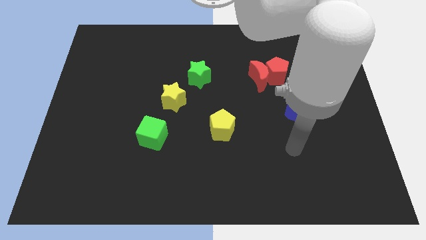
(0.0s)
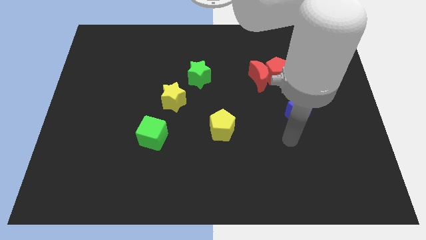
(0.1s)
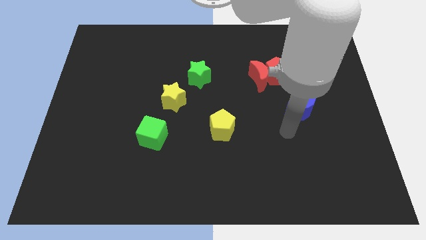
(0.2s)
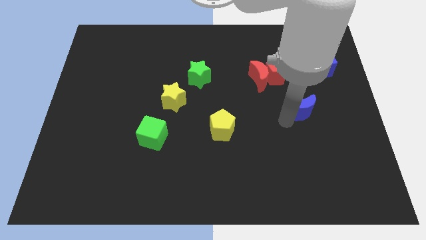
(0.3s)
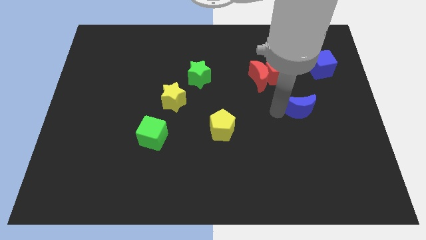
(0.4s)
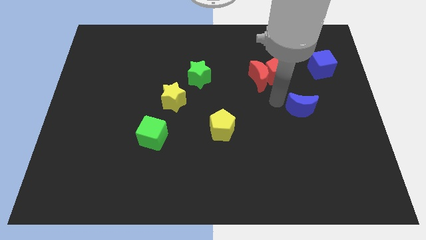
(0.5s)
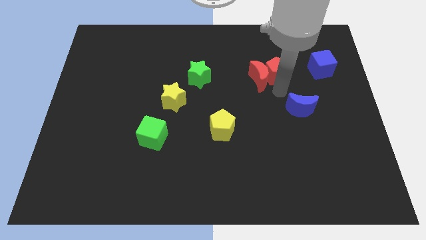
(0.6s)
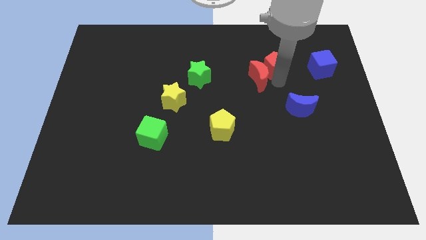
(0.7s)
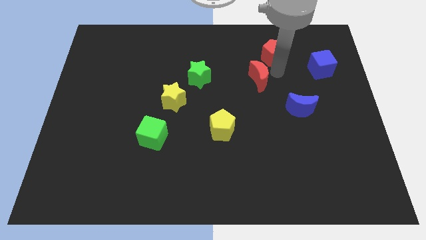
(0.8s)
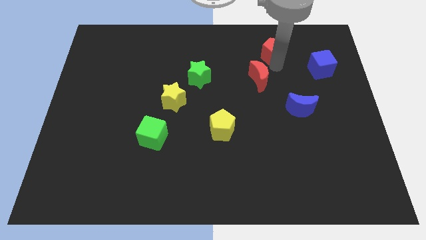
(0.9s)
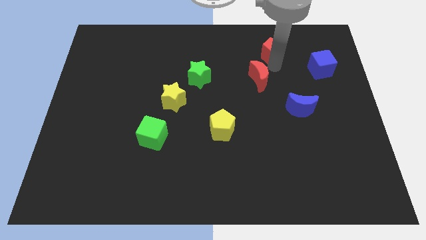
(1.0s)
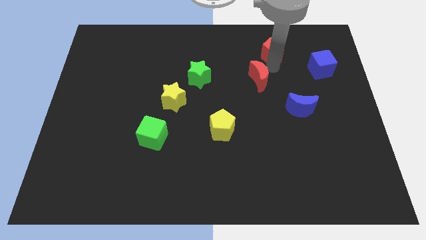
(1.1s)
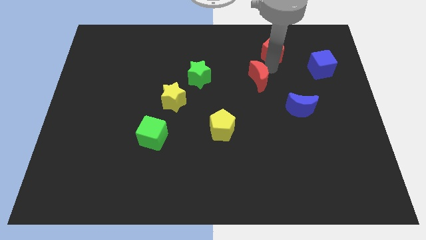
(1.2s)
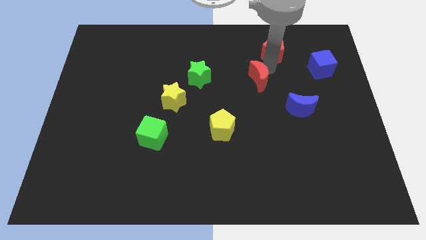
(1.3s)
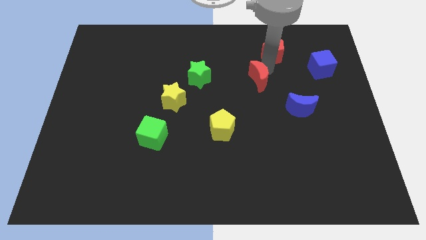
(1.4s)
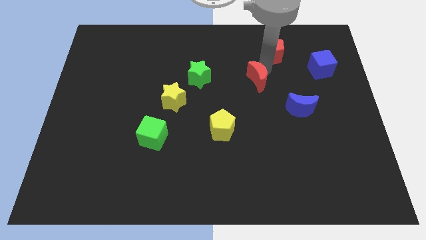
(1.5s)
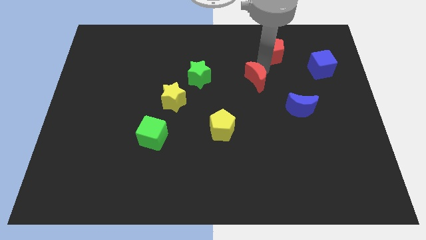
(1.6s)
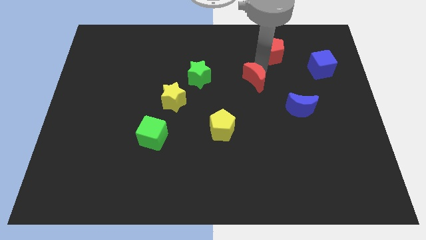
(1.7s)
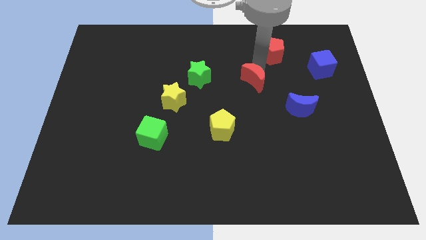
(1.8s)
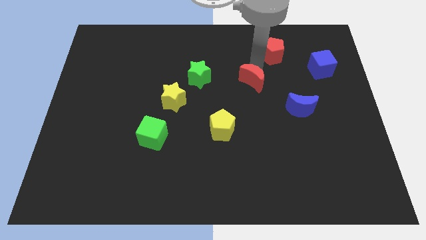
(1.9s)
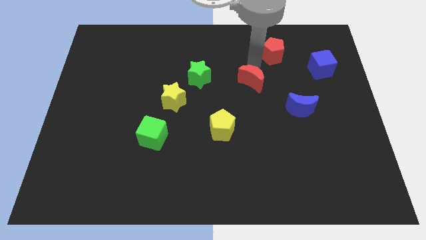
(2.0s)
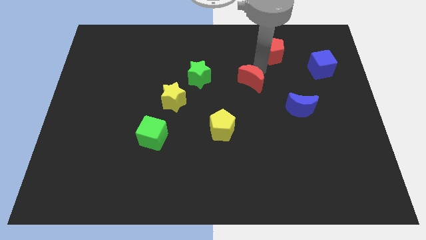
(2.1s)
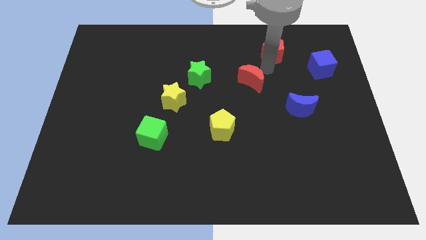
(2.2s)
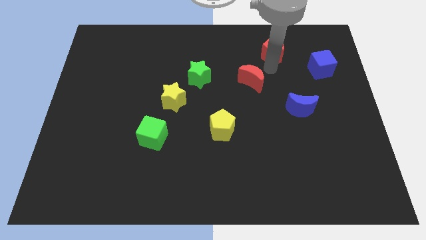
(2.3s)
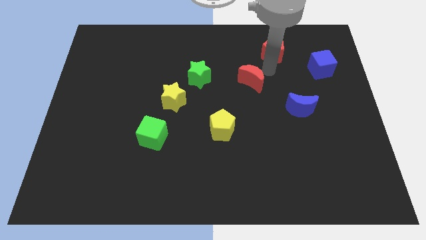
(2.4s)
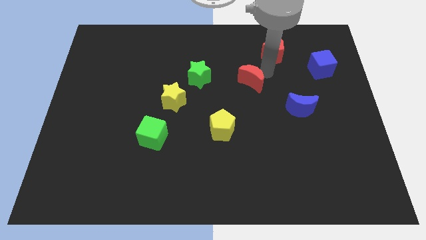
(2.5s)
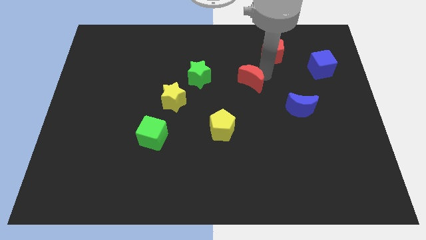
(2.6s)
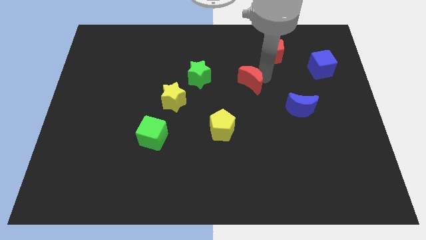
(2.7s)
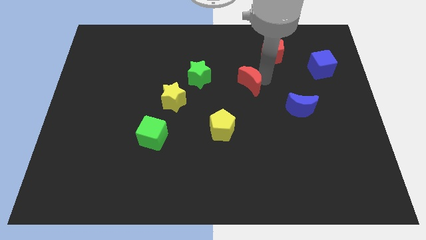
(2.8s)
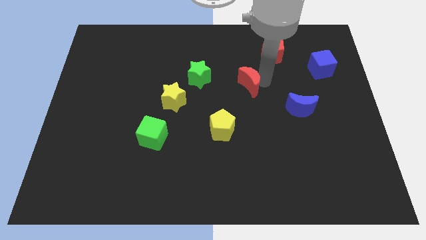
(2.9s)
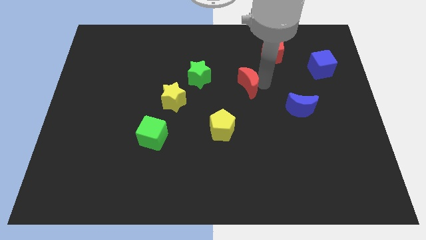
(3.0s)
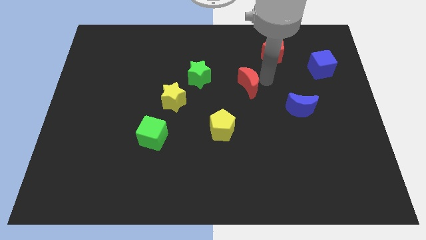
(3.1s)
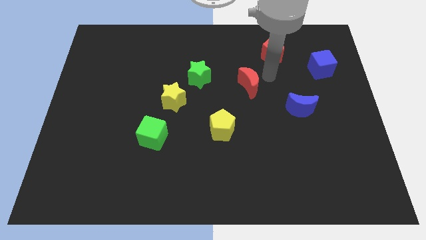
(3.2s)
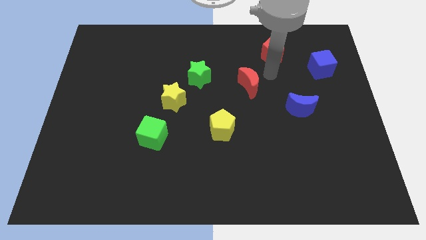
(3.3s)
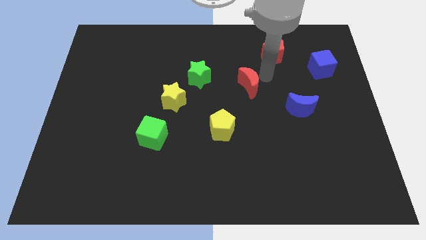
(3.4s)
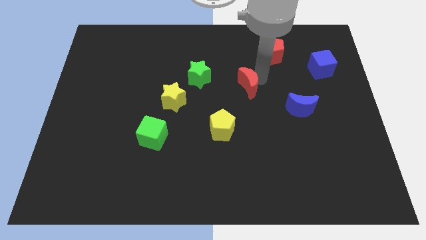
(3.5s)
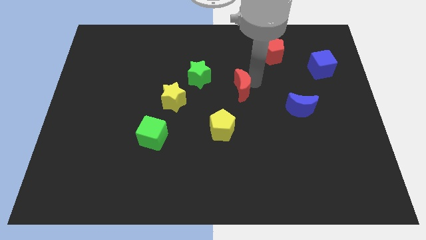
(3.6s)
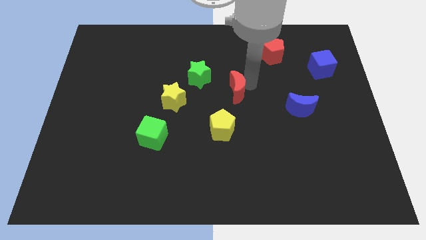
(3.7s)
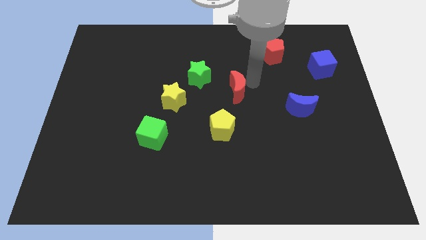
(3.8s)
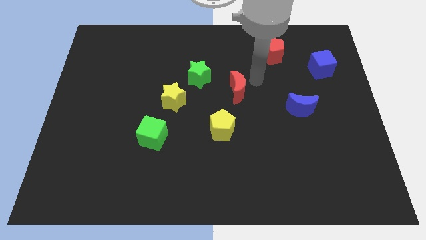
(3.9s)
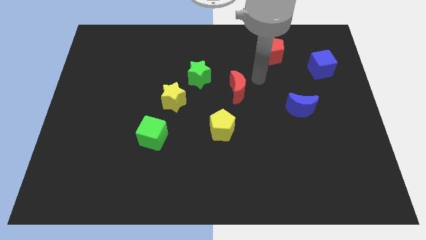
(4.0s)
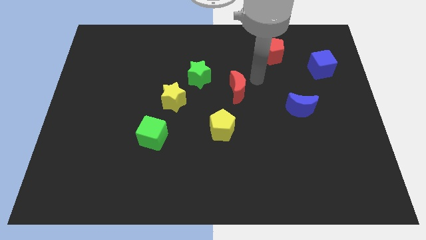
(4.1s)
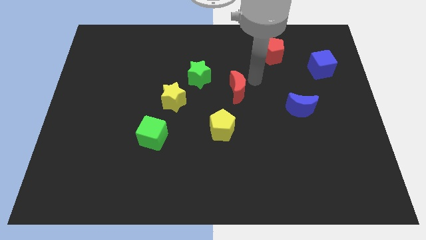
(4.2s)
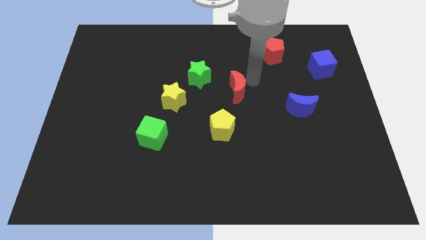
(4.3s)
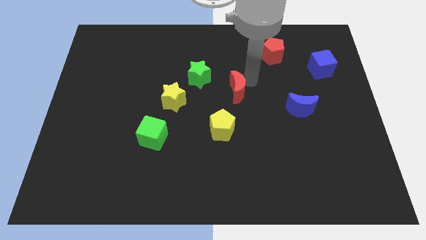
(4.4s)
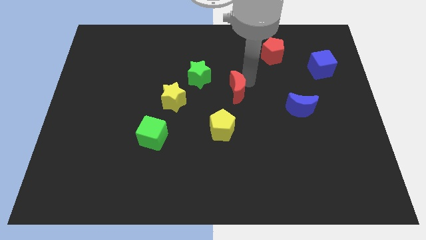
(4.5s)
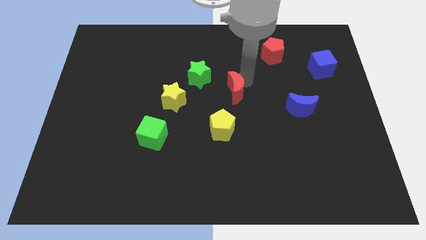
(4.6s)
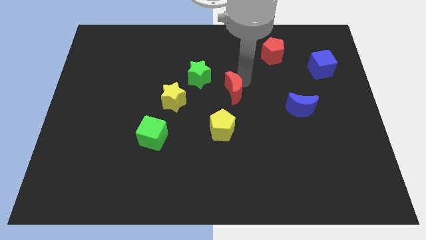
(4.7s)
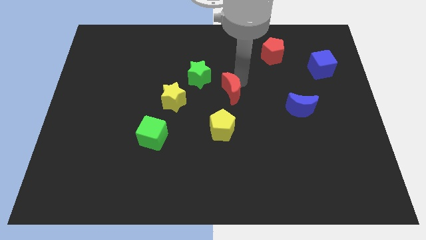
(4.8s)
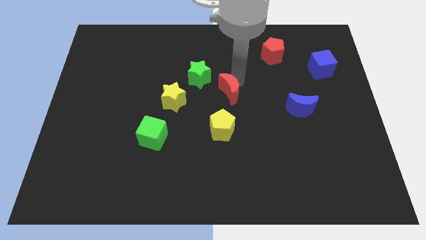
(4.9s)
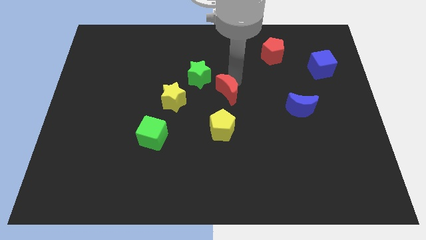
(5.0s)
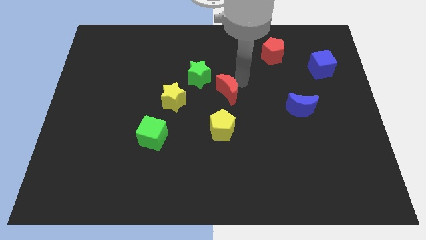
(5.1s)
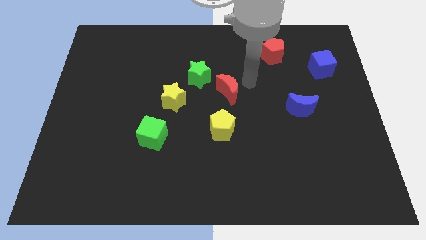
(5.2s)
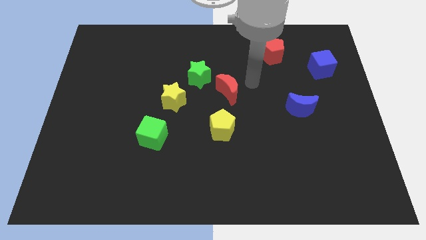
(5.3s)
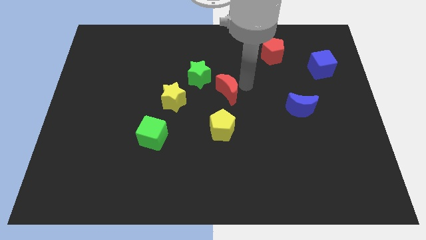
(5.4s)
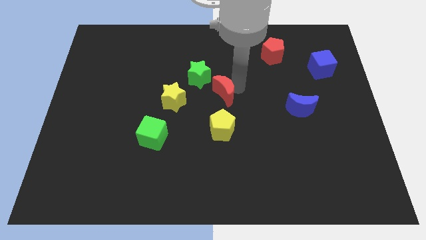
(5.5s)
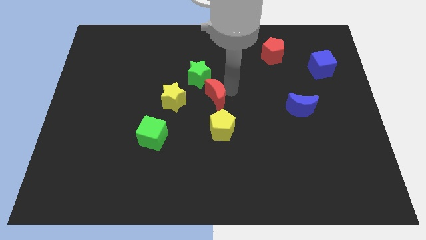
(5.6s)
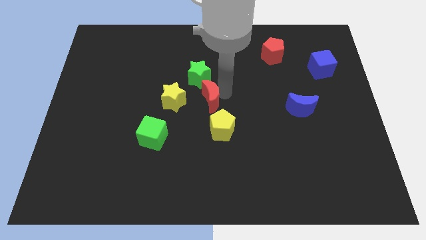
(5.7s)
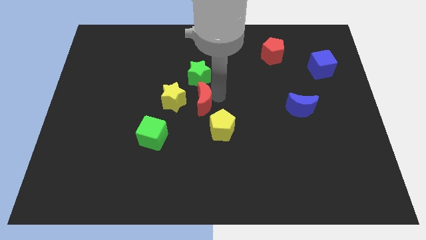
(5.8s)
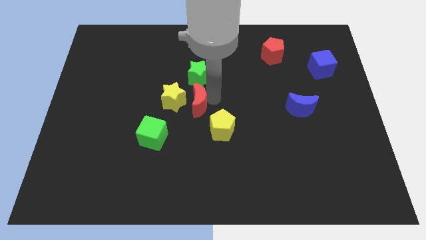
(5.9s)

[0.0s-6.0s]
move the red moon to the yellow star

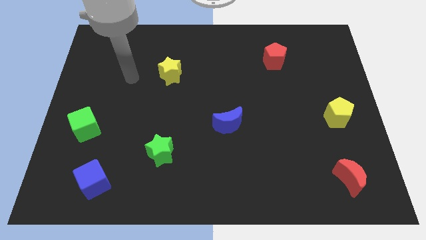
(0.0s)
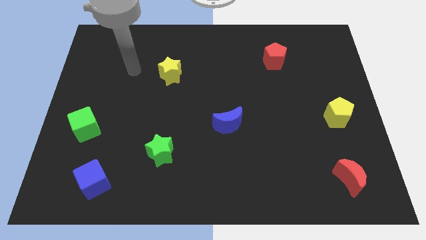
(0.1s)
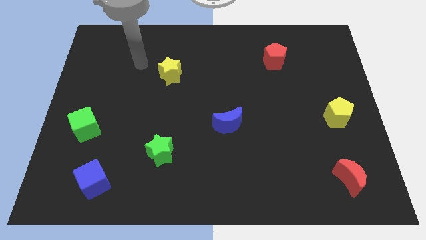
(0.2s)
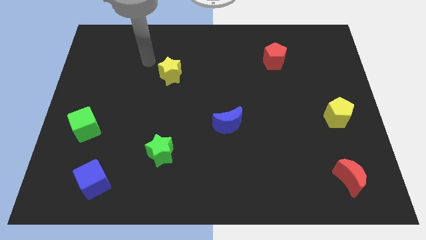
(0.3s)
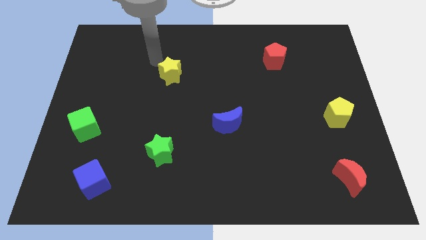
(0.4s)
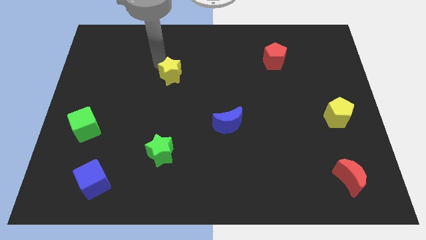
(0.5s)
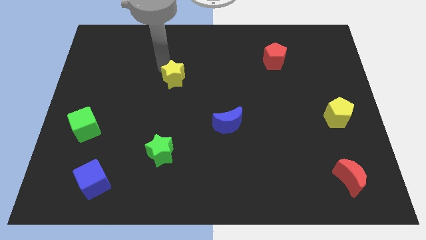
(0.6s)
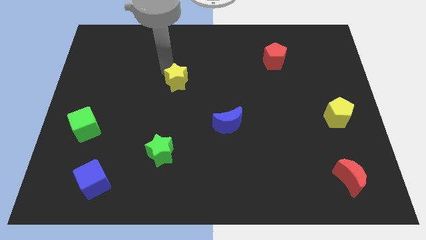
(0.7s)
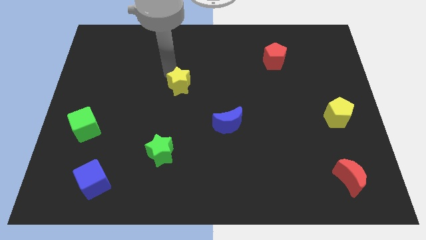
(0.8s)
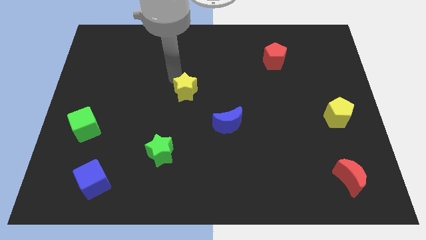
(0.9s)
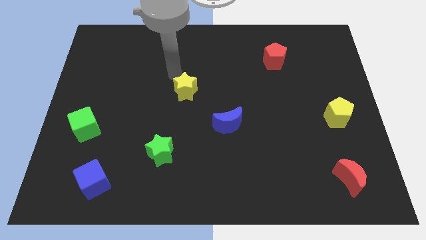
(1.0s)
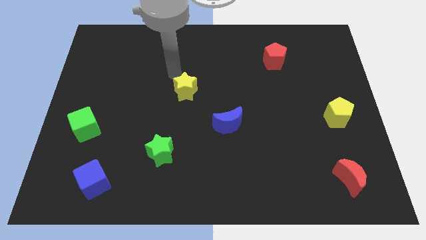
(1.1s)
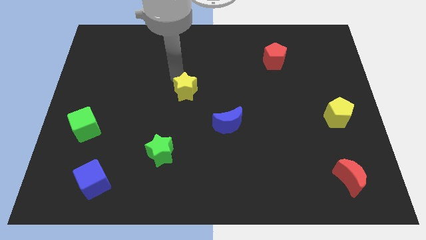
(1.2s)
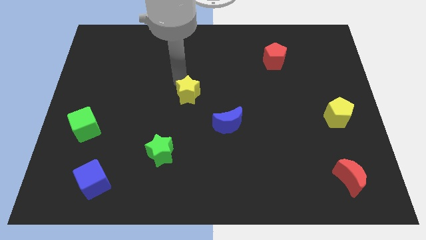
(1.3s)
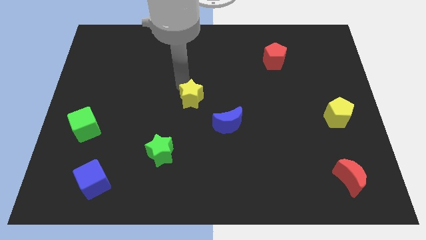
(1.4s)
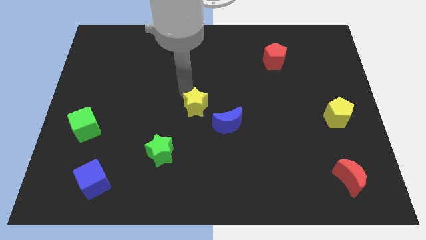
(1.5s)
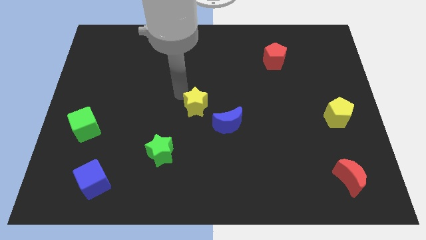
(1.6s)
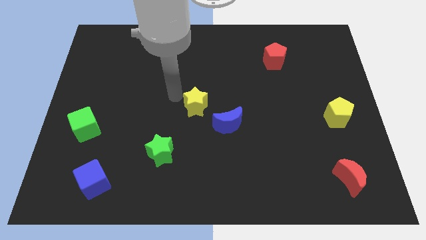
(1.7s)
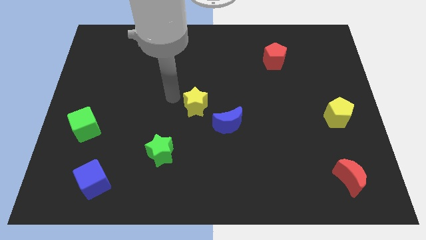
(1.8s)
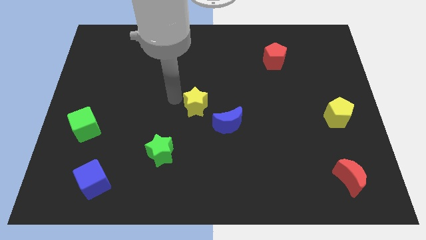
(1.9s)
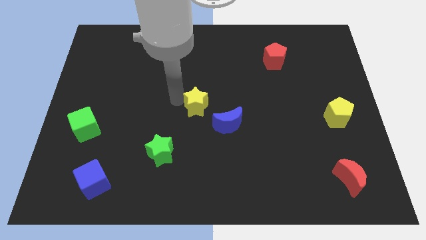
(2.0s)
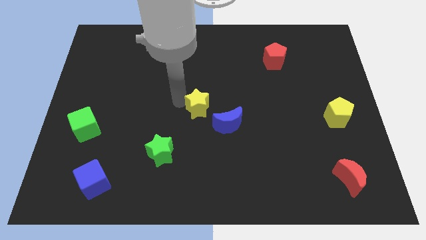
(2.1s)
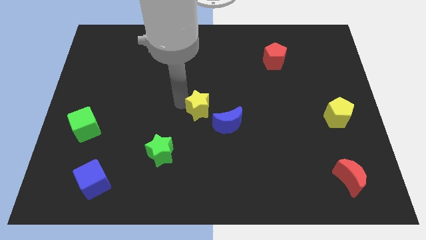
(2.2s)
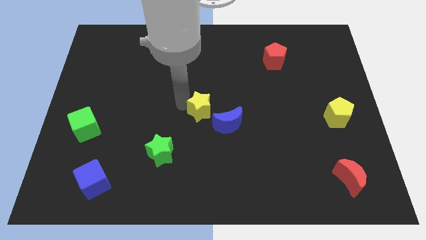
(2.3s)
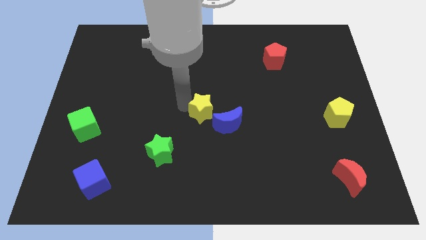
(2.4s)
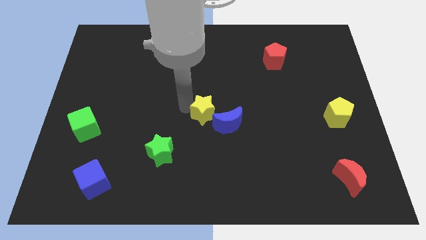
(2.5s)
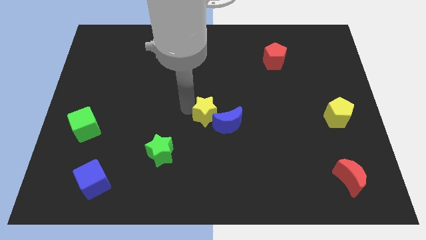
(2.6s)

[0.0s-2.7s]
move the yellow star close to the blue moon
